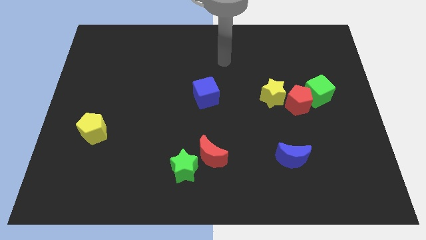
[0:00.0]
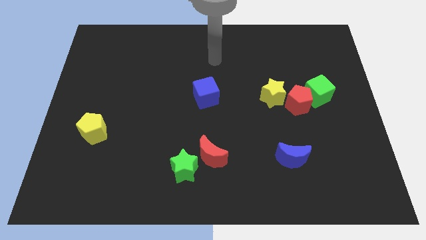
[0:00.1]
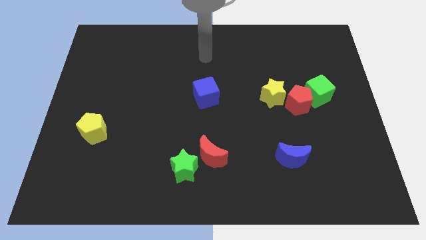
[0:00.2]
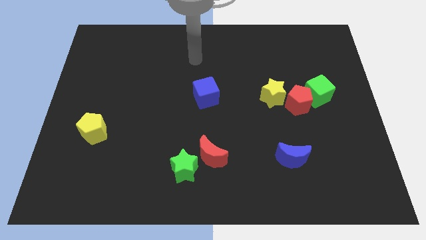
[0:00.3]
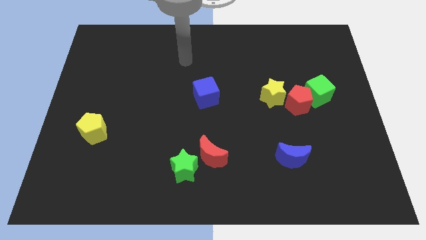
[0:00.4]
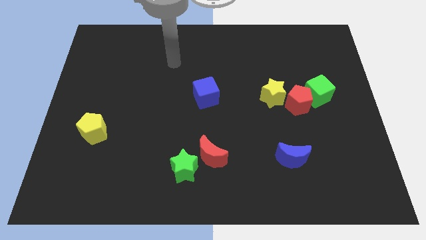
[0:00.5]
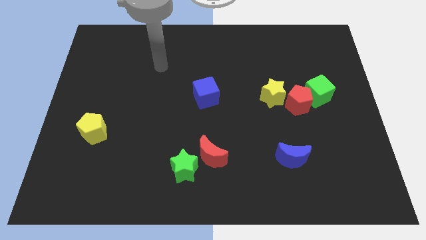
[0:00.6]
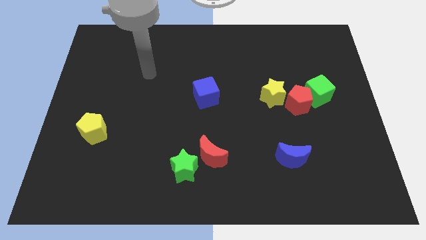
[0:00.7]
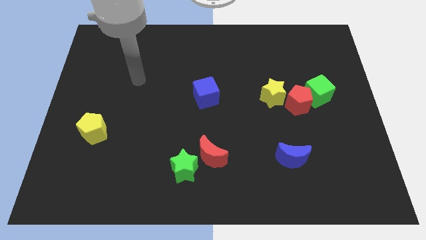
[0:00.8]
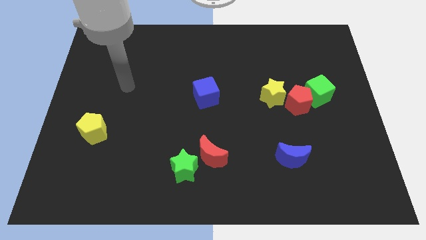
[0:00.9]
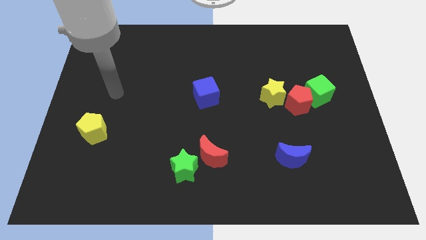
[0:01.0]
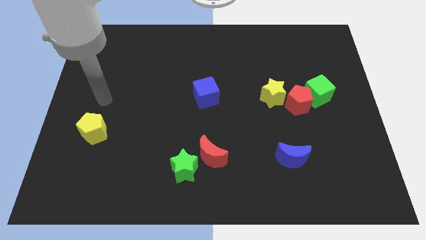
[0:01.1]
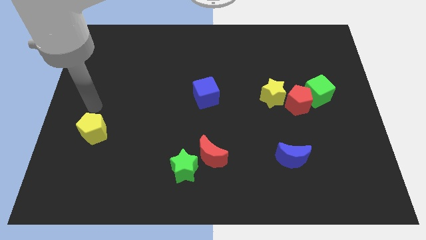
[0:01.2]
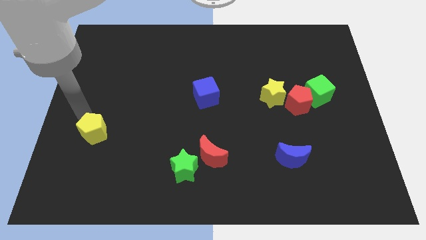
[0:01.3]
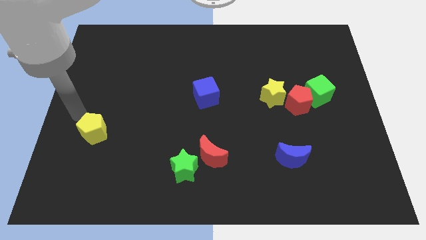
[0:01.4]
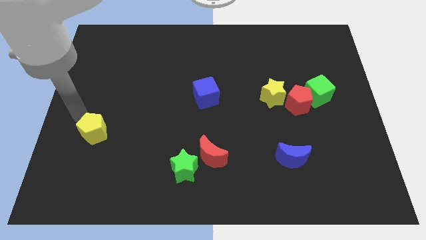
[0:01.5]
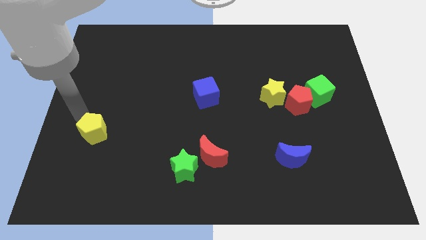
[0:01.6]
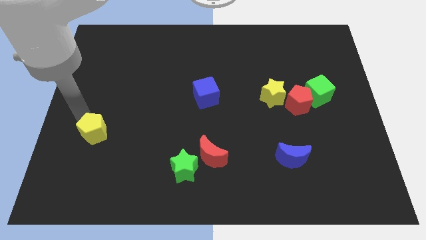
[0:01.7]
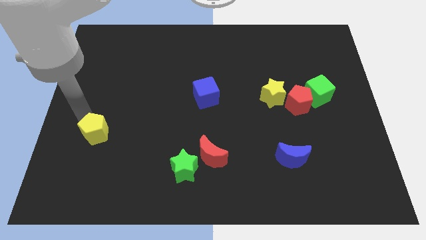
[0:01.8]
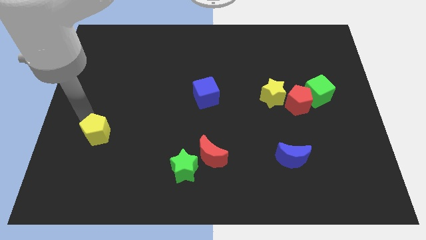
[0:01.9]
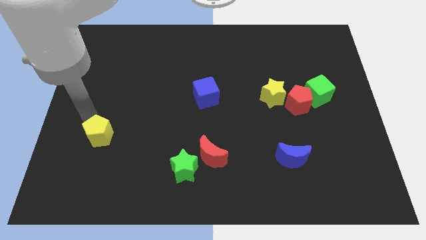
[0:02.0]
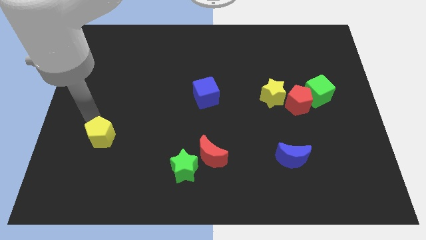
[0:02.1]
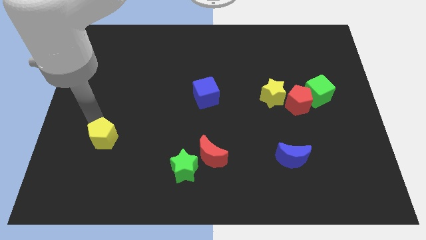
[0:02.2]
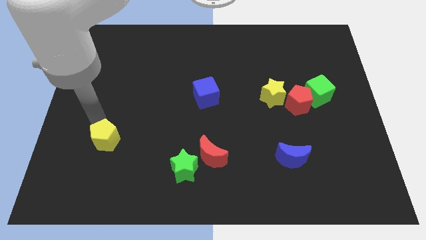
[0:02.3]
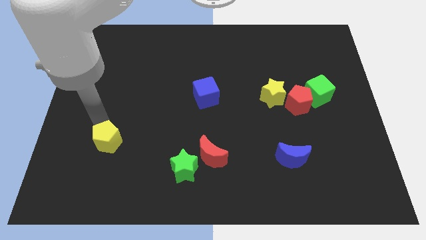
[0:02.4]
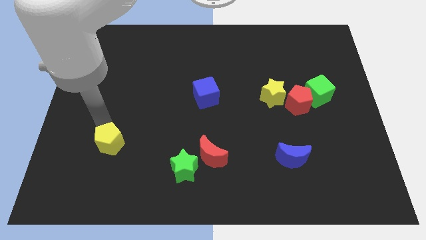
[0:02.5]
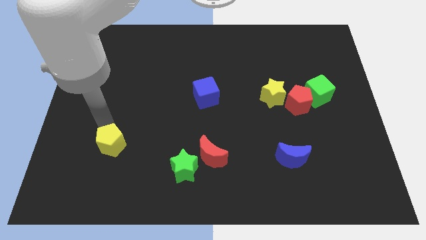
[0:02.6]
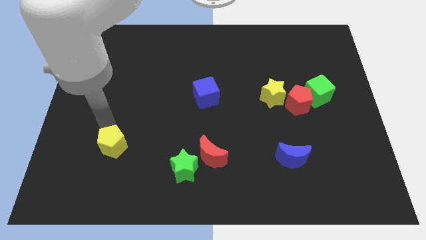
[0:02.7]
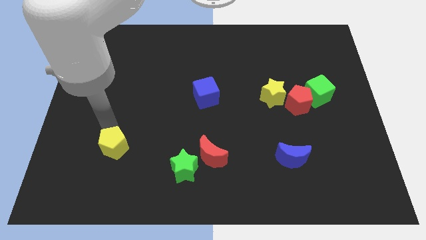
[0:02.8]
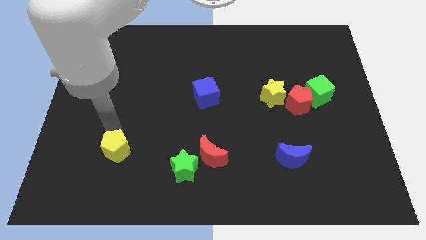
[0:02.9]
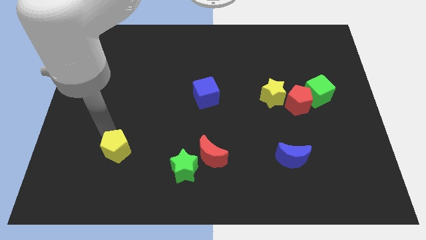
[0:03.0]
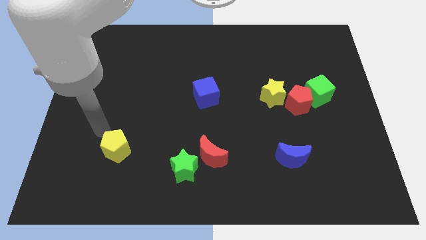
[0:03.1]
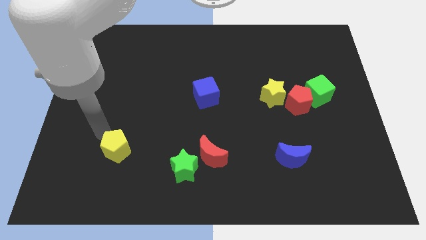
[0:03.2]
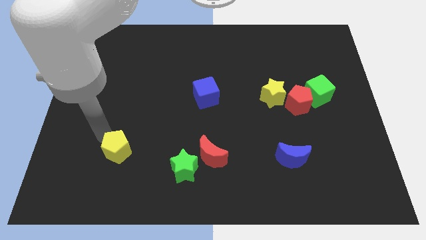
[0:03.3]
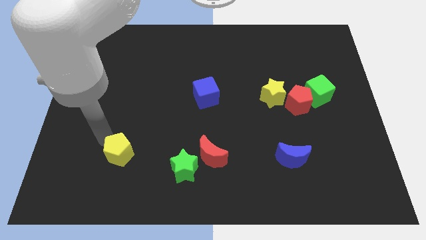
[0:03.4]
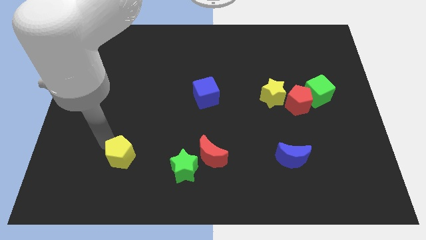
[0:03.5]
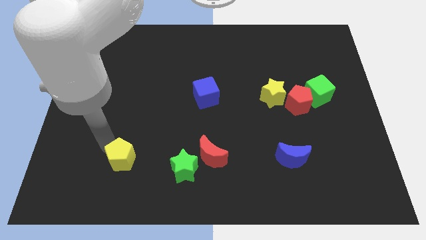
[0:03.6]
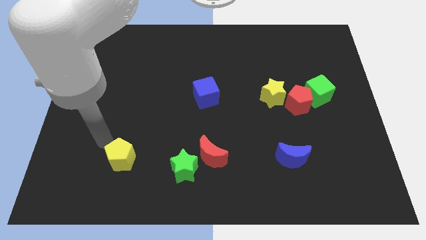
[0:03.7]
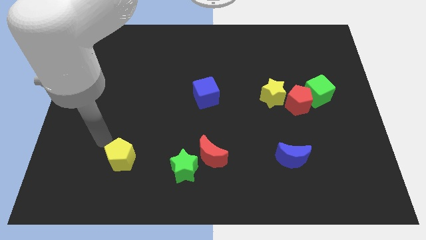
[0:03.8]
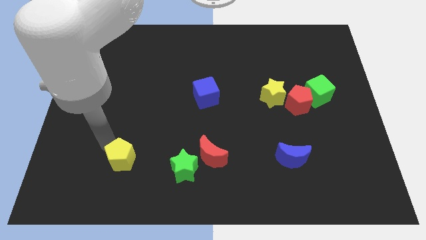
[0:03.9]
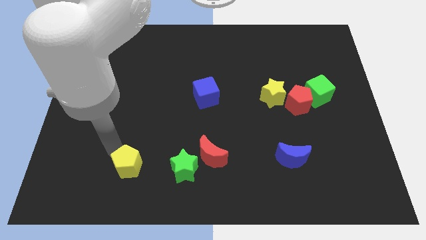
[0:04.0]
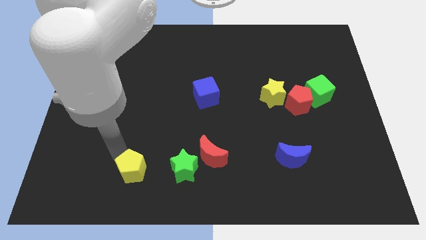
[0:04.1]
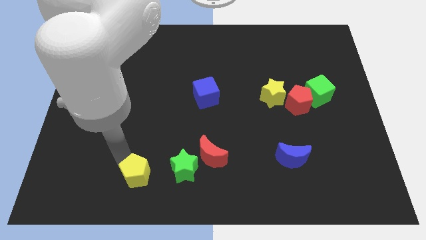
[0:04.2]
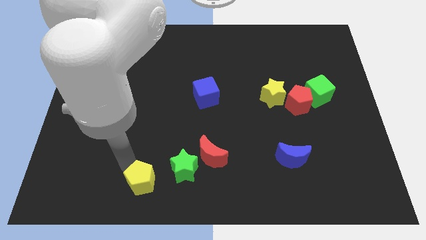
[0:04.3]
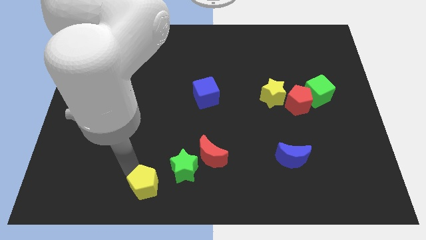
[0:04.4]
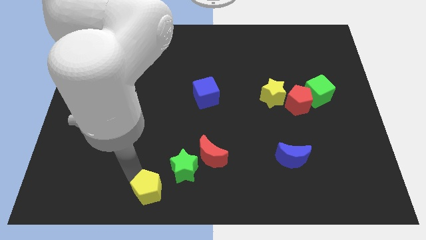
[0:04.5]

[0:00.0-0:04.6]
push the yellow pentagon to the bottom side

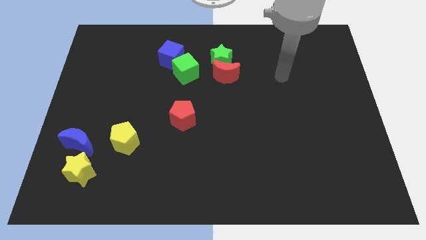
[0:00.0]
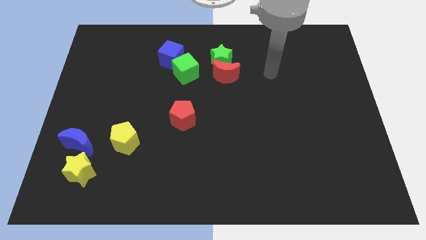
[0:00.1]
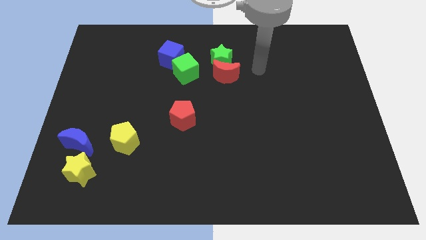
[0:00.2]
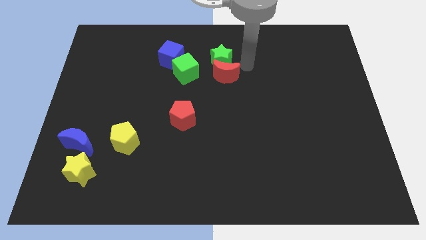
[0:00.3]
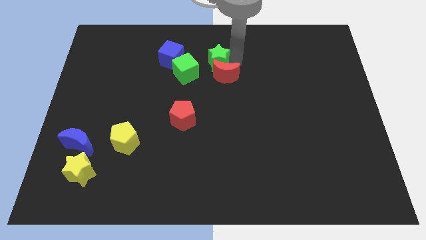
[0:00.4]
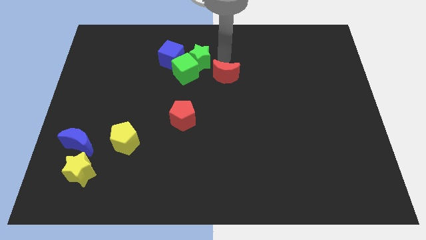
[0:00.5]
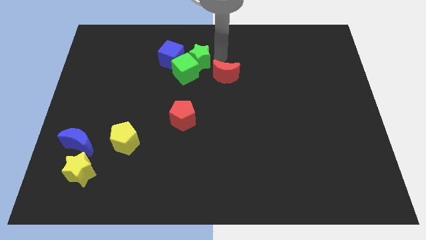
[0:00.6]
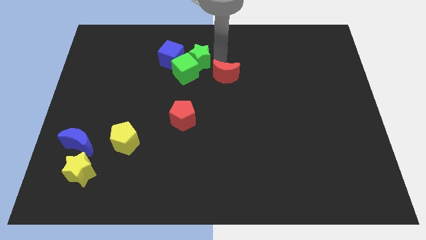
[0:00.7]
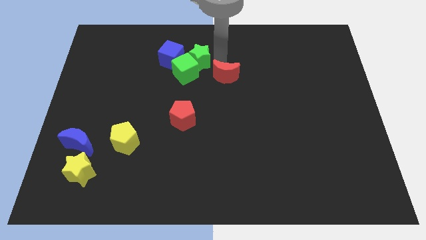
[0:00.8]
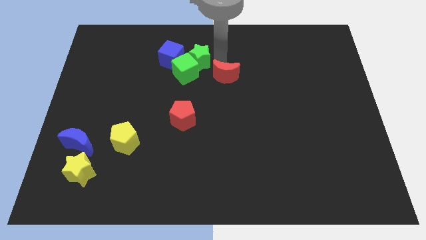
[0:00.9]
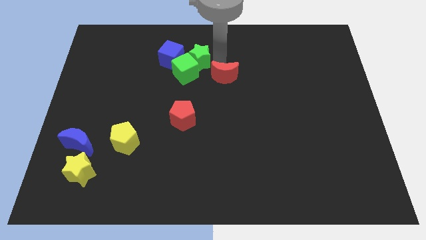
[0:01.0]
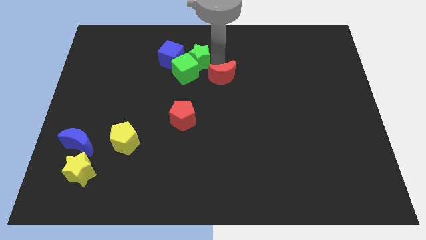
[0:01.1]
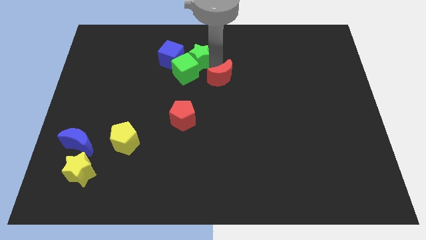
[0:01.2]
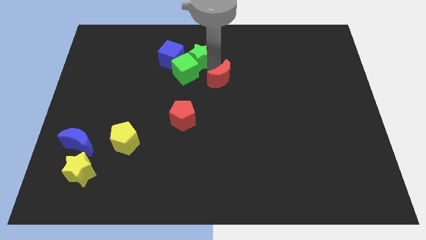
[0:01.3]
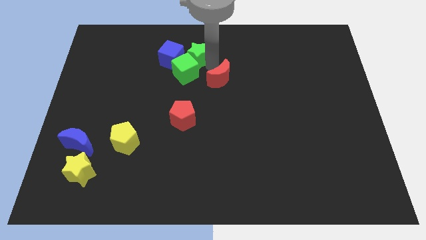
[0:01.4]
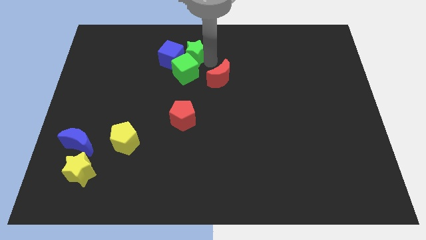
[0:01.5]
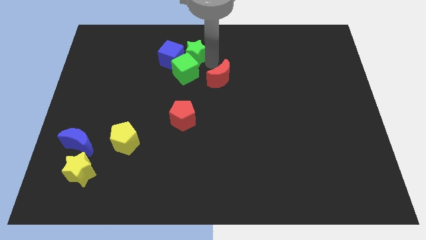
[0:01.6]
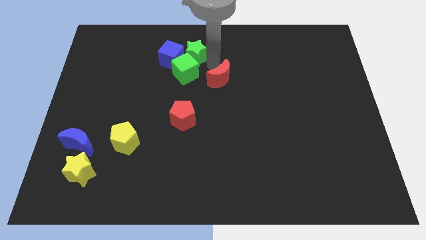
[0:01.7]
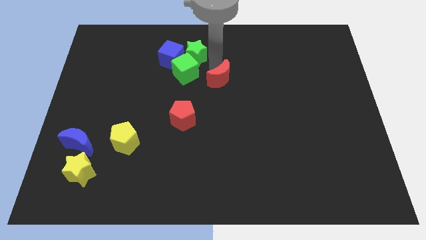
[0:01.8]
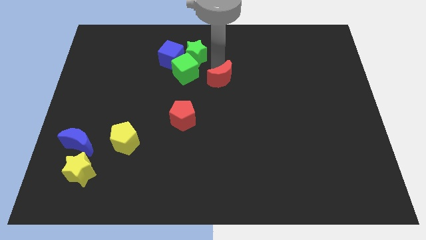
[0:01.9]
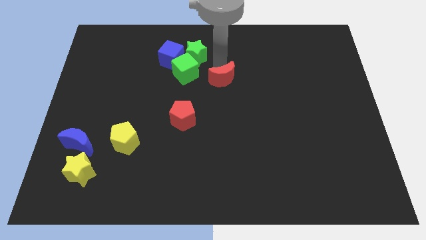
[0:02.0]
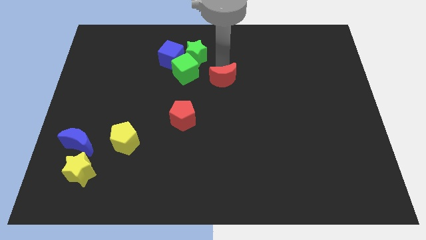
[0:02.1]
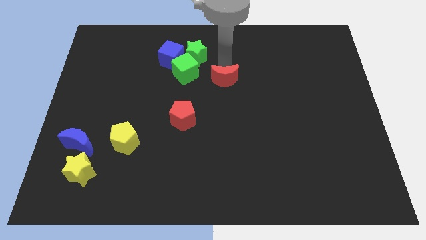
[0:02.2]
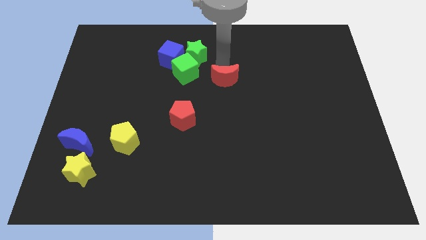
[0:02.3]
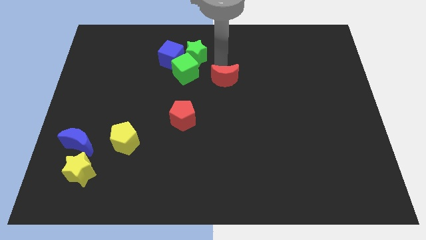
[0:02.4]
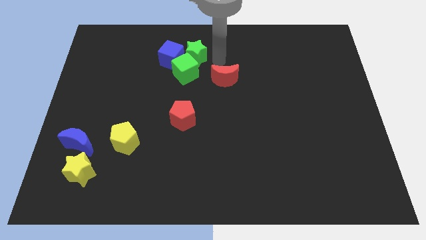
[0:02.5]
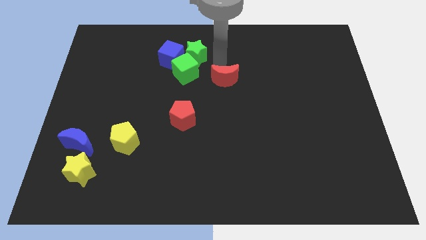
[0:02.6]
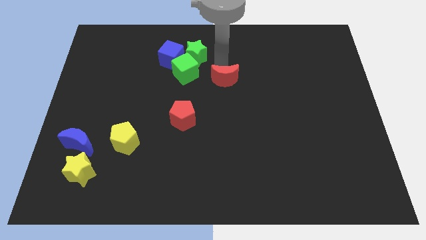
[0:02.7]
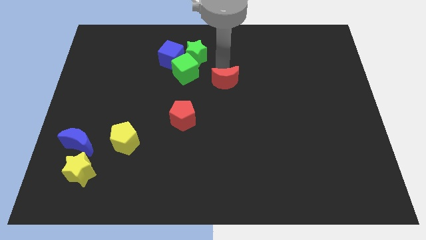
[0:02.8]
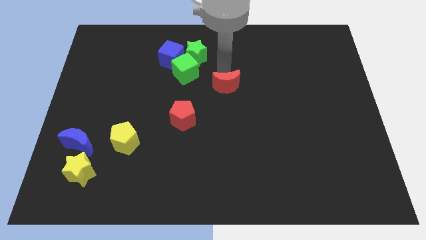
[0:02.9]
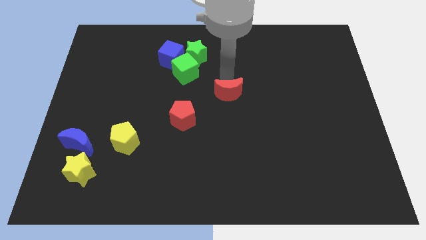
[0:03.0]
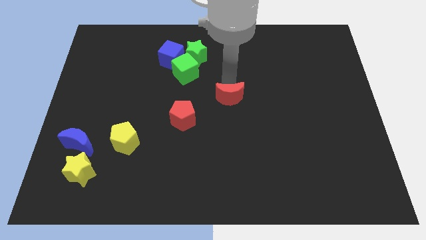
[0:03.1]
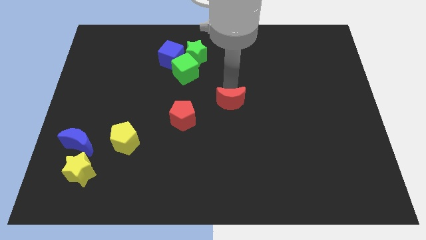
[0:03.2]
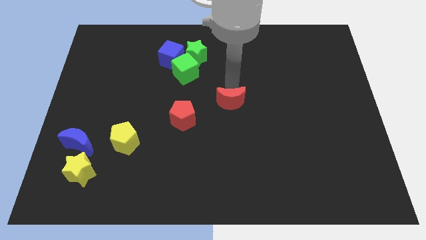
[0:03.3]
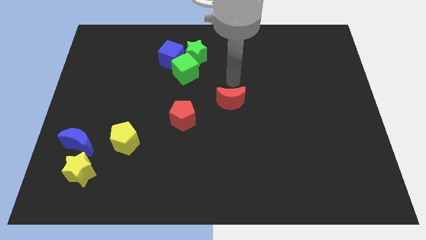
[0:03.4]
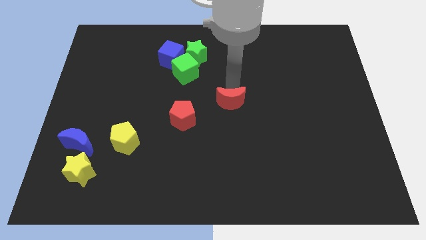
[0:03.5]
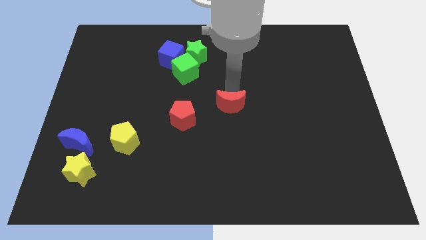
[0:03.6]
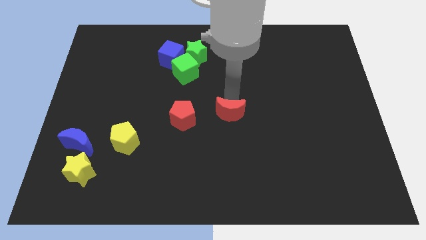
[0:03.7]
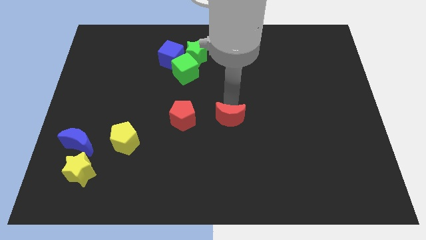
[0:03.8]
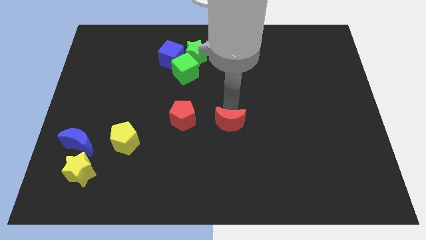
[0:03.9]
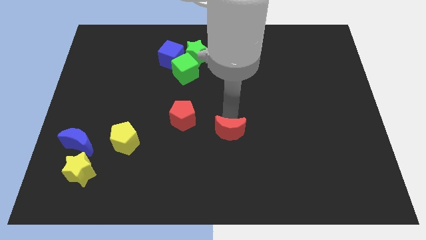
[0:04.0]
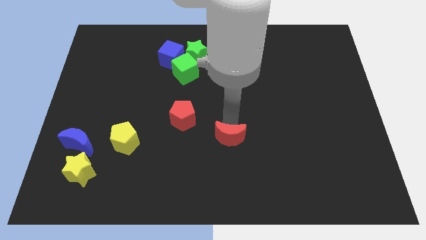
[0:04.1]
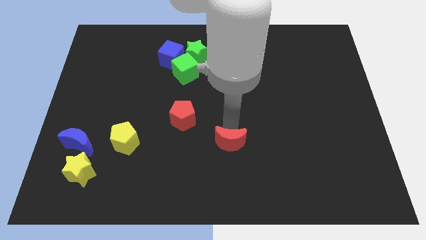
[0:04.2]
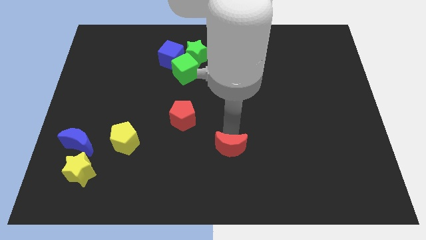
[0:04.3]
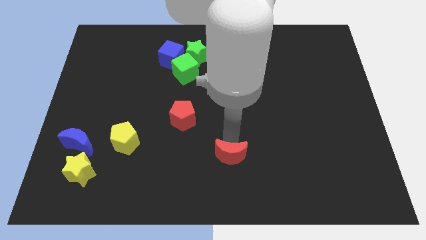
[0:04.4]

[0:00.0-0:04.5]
move the red moon to the bottom side
